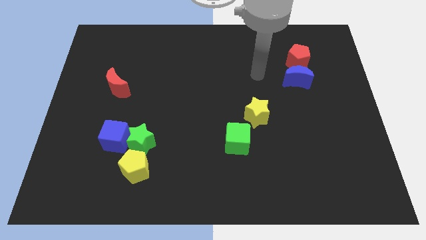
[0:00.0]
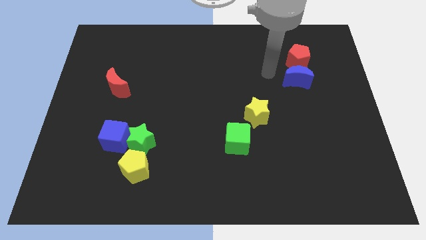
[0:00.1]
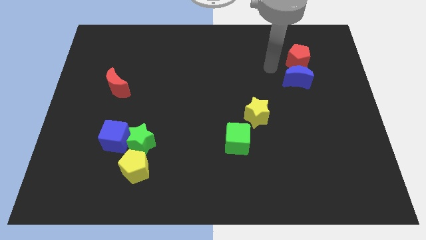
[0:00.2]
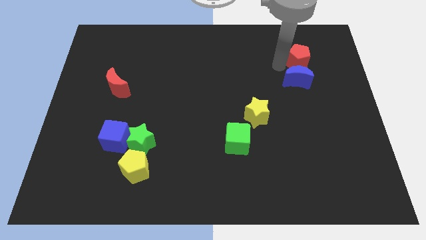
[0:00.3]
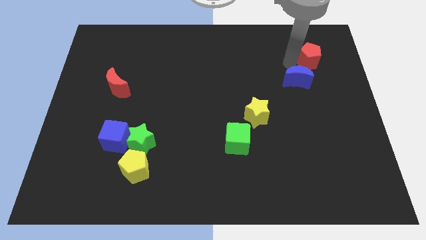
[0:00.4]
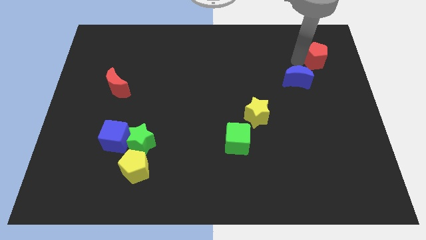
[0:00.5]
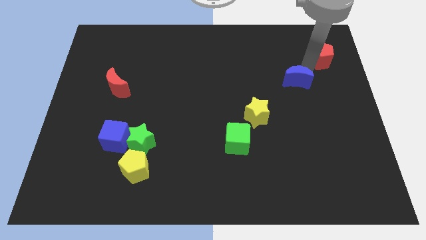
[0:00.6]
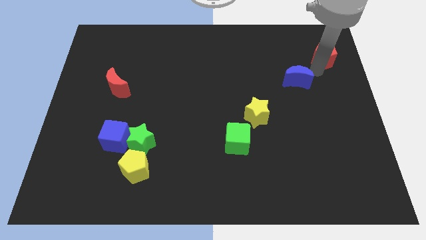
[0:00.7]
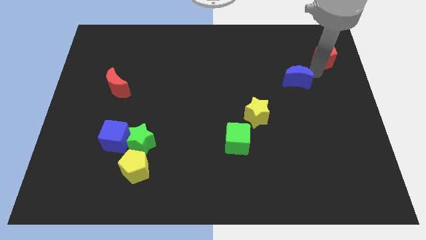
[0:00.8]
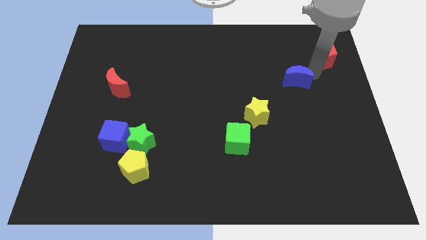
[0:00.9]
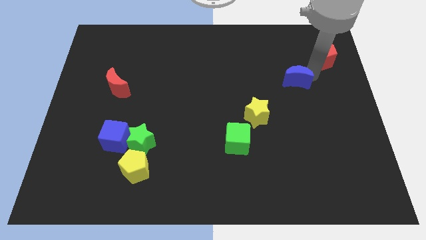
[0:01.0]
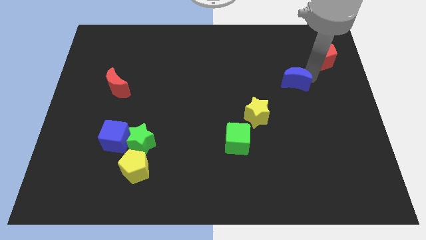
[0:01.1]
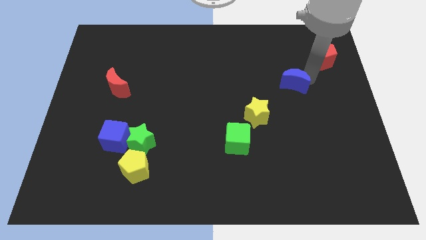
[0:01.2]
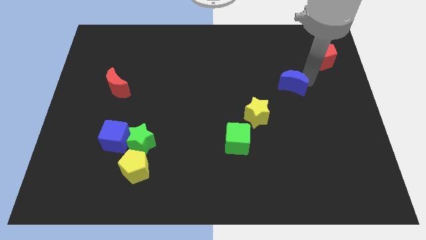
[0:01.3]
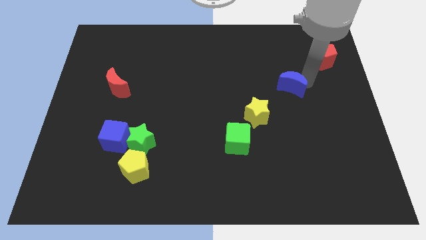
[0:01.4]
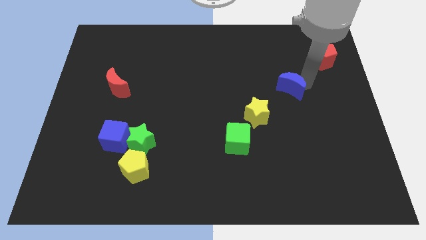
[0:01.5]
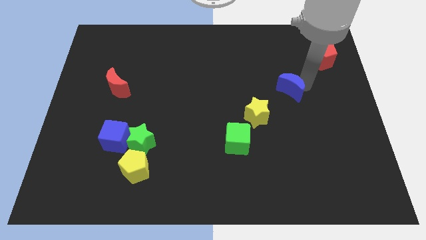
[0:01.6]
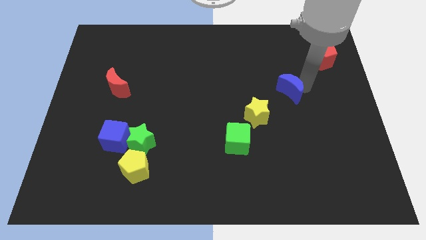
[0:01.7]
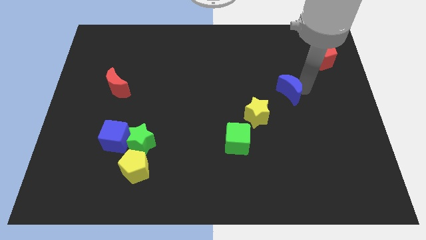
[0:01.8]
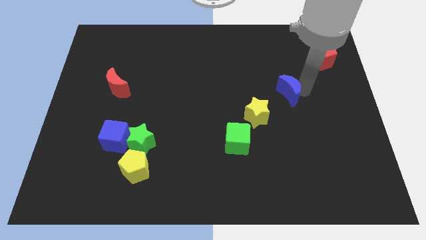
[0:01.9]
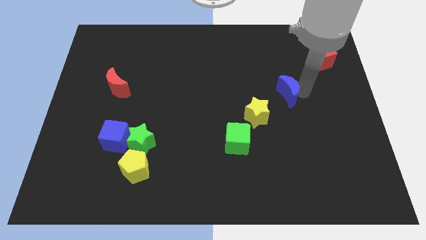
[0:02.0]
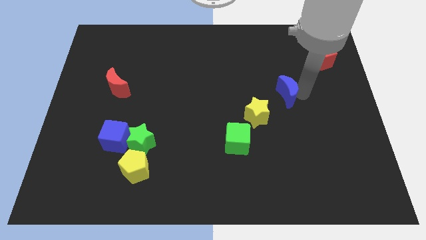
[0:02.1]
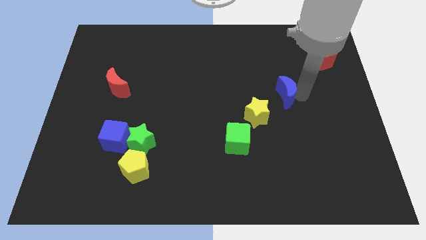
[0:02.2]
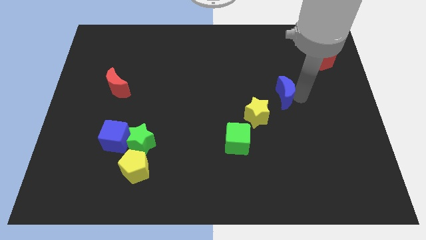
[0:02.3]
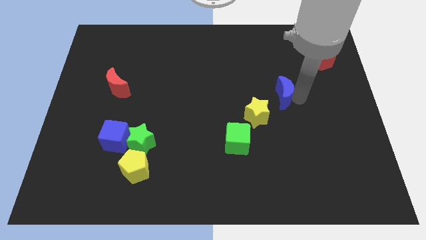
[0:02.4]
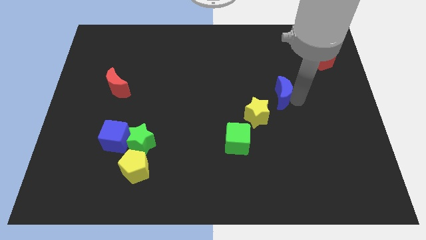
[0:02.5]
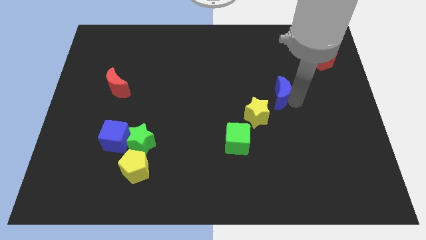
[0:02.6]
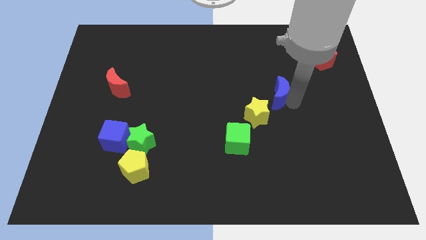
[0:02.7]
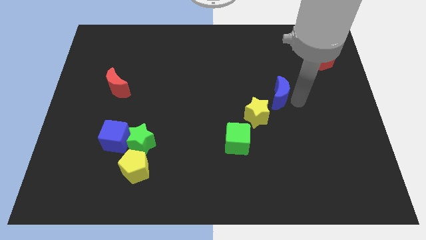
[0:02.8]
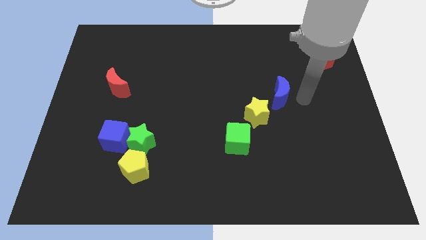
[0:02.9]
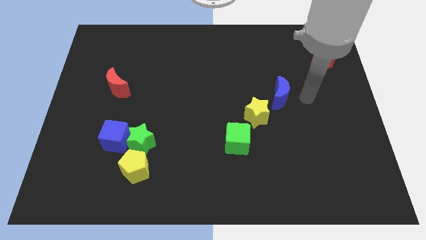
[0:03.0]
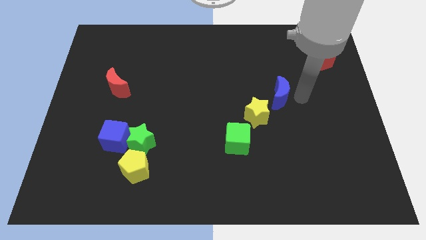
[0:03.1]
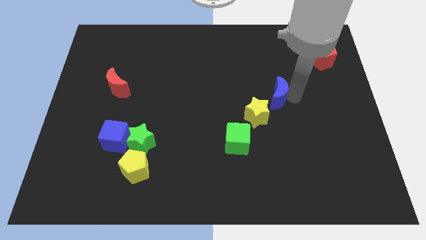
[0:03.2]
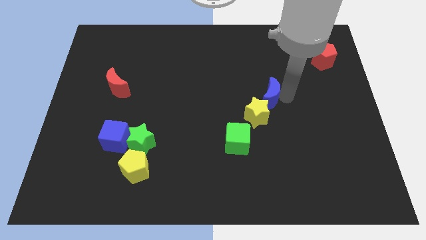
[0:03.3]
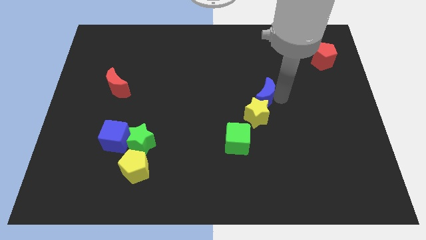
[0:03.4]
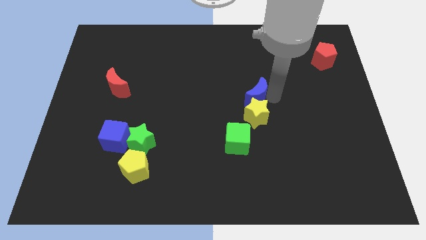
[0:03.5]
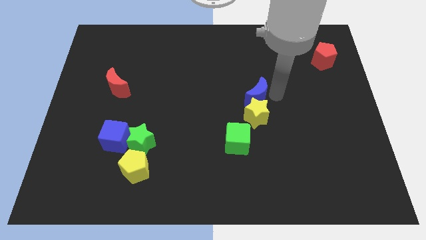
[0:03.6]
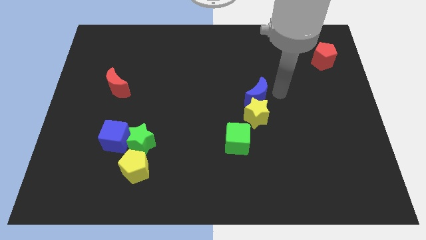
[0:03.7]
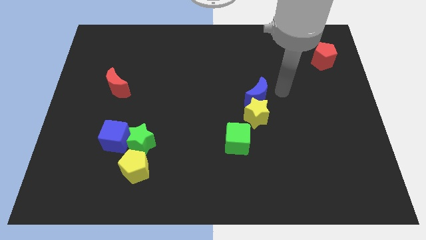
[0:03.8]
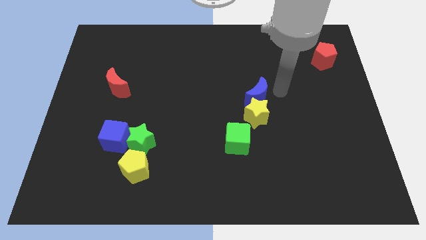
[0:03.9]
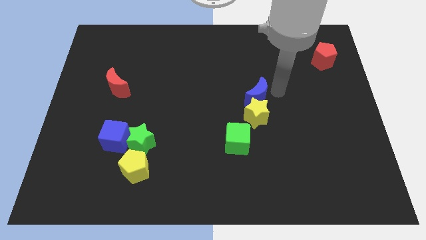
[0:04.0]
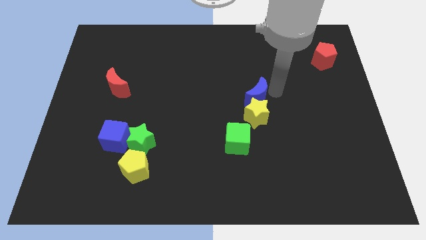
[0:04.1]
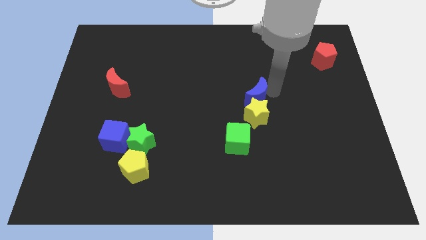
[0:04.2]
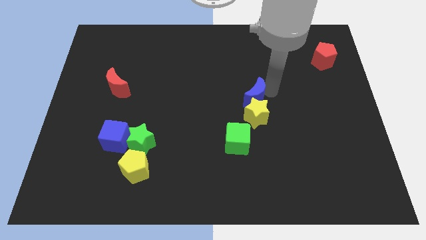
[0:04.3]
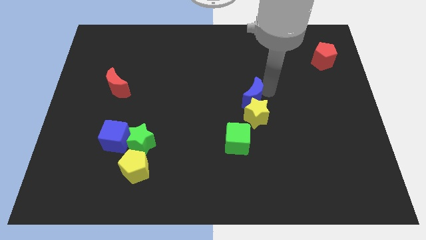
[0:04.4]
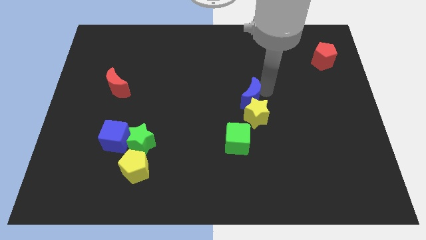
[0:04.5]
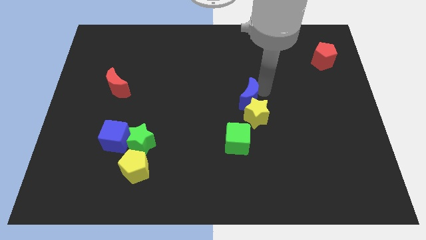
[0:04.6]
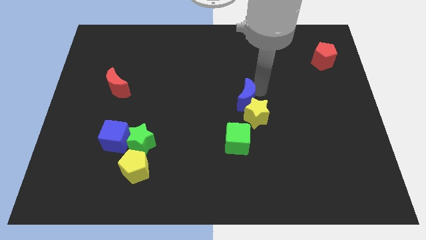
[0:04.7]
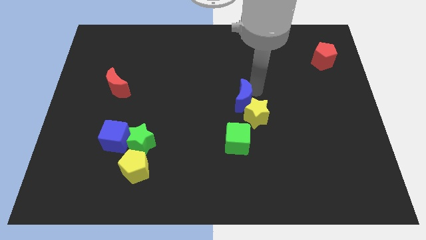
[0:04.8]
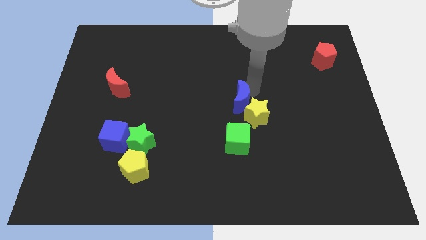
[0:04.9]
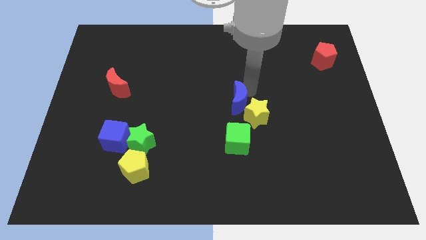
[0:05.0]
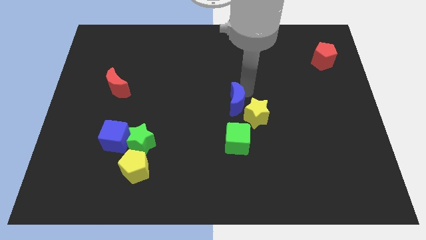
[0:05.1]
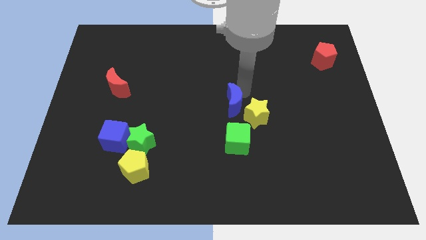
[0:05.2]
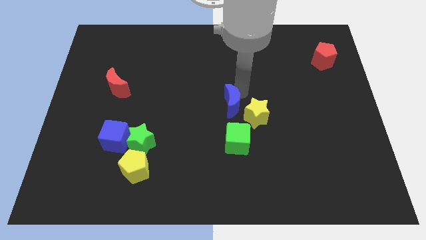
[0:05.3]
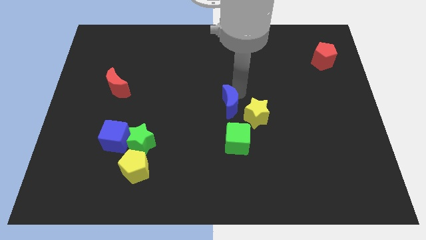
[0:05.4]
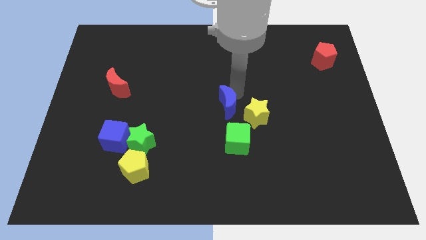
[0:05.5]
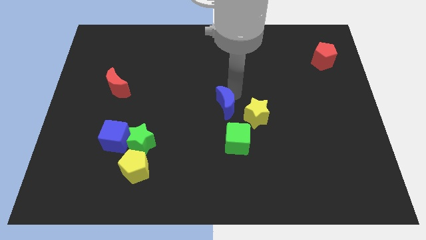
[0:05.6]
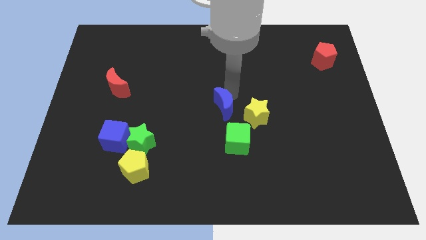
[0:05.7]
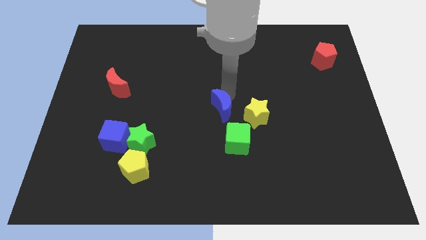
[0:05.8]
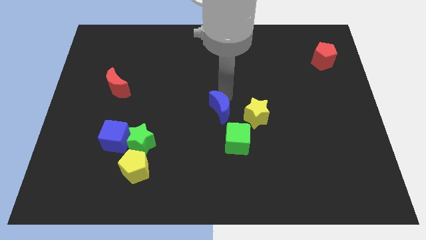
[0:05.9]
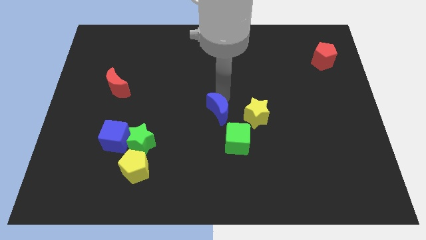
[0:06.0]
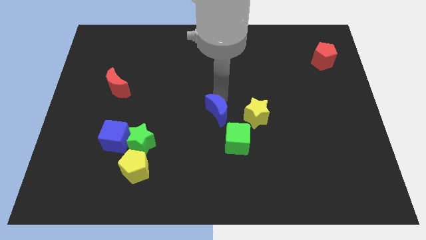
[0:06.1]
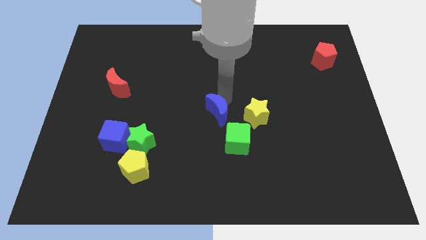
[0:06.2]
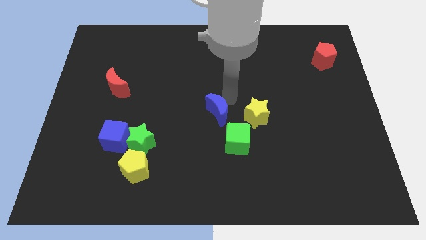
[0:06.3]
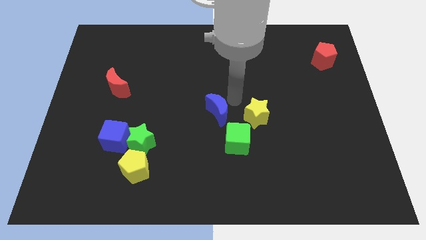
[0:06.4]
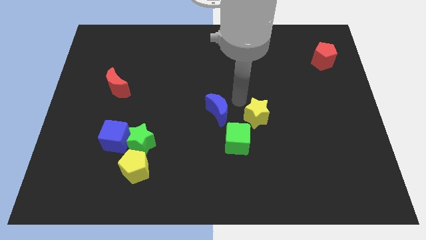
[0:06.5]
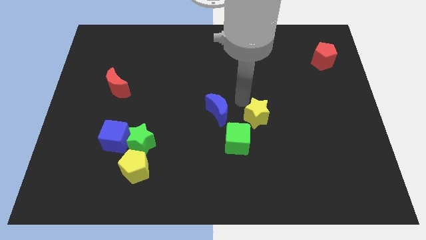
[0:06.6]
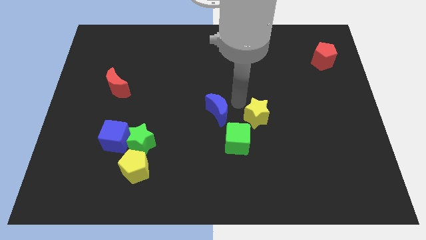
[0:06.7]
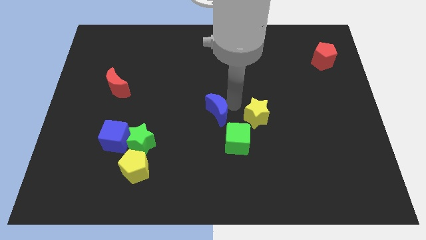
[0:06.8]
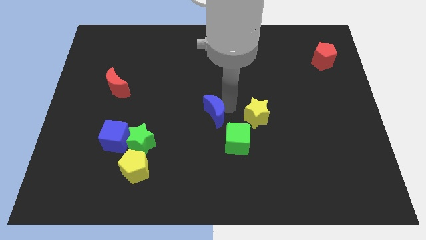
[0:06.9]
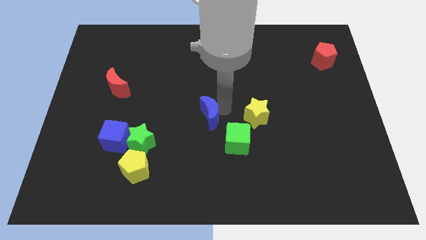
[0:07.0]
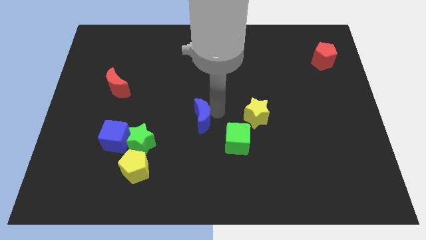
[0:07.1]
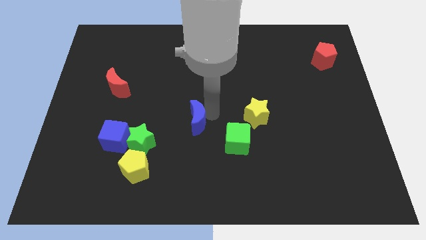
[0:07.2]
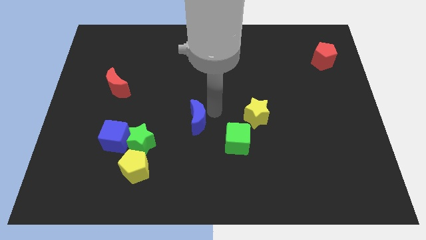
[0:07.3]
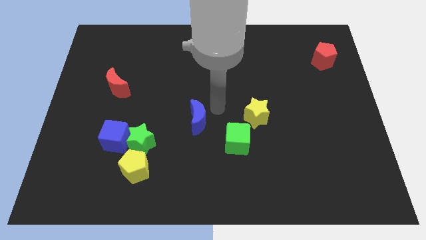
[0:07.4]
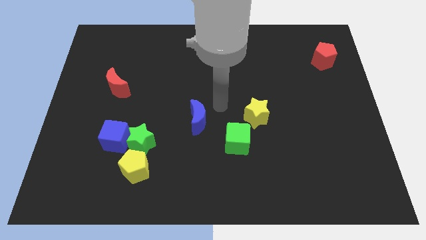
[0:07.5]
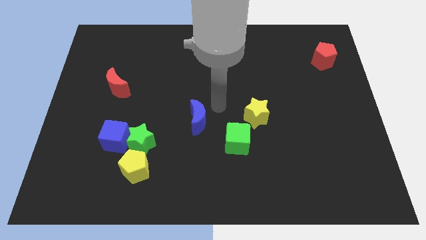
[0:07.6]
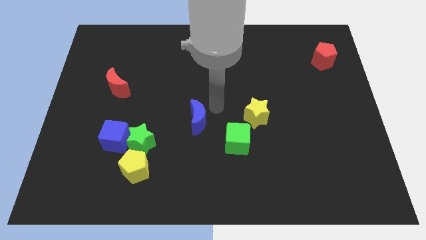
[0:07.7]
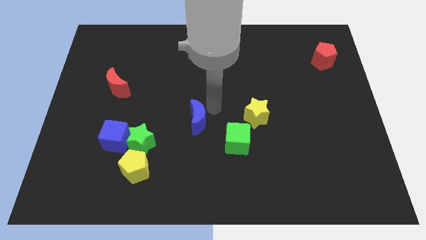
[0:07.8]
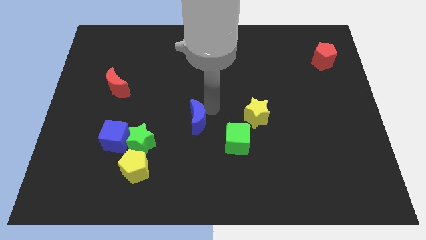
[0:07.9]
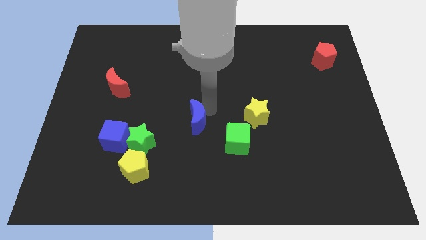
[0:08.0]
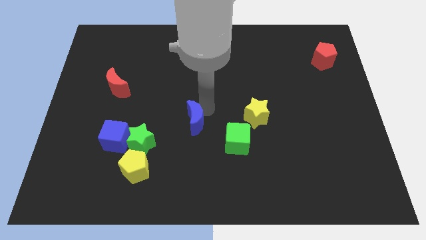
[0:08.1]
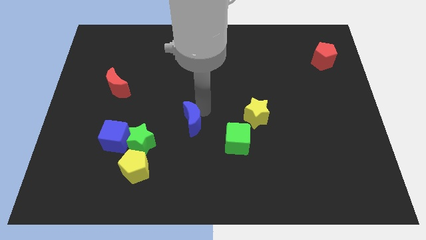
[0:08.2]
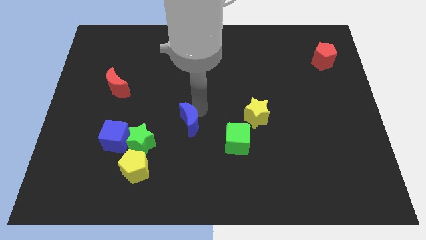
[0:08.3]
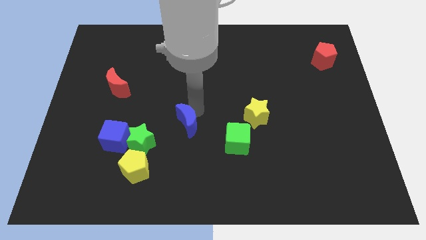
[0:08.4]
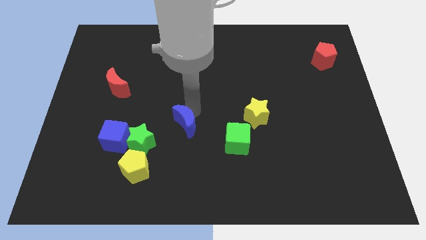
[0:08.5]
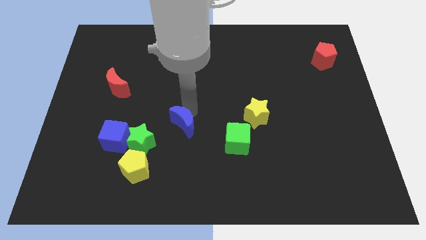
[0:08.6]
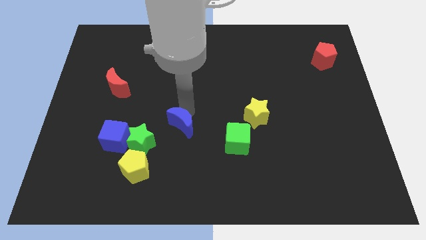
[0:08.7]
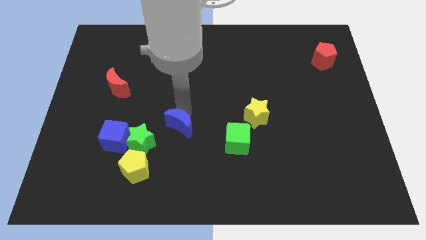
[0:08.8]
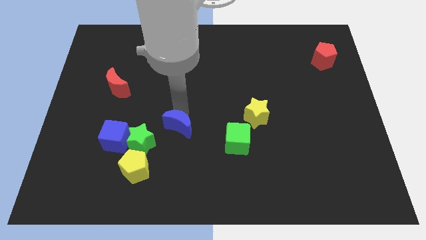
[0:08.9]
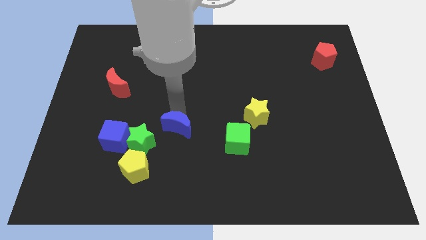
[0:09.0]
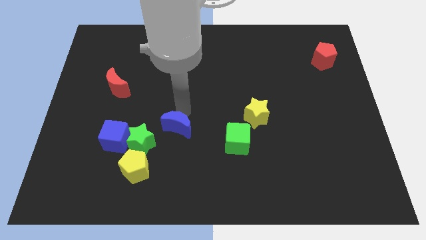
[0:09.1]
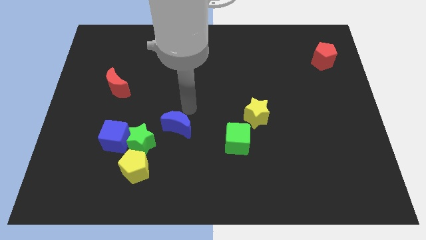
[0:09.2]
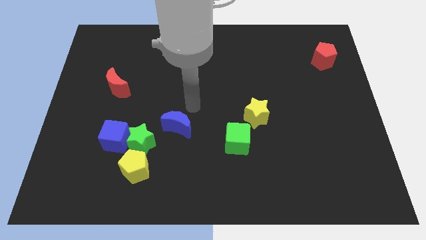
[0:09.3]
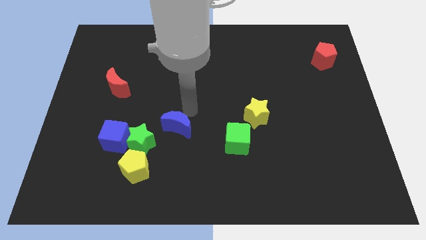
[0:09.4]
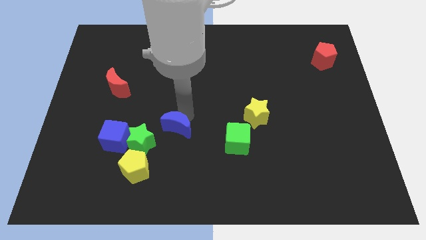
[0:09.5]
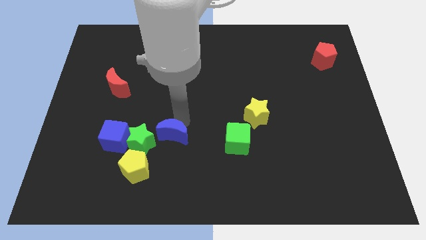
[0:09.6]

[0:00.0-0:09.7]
slide the blue moon diagonally up and to the right of the yellow pentagon
